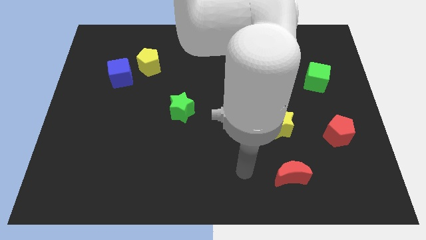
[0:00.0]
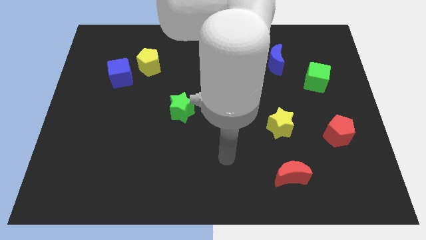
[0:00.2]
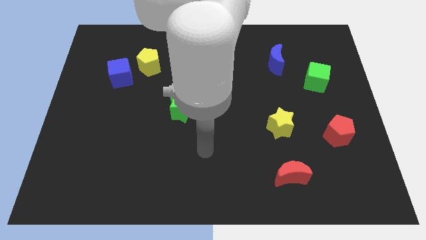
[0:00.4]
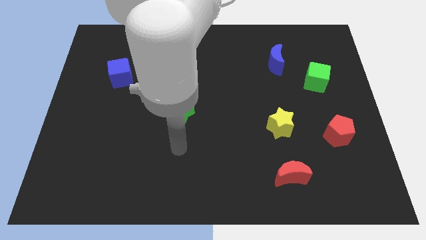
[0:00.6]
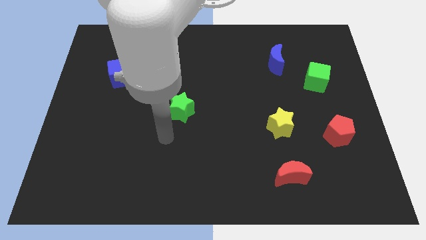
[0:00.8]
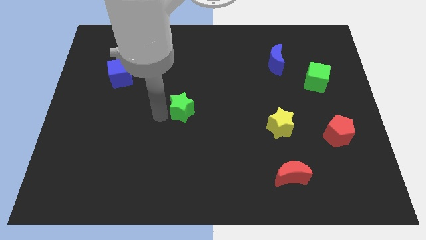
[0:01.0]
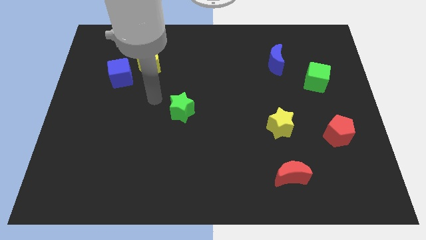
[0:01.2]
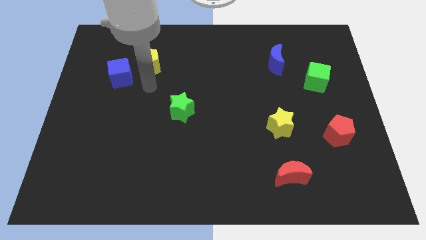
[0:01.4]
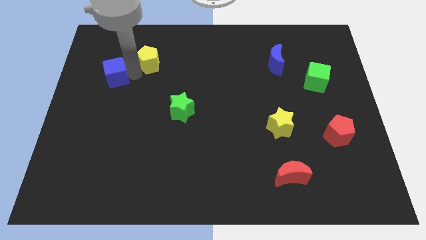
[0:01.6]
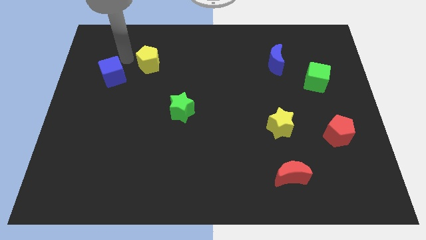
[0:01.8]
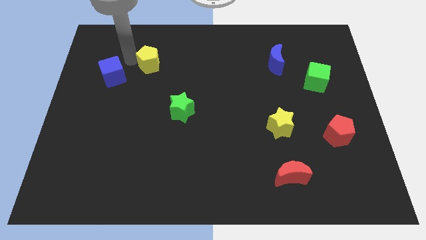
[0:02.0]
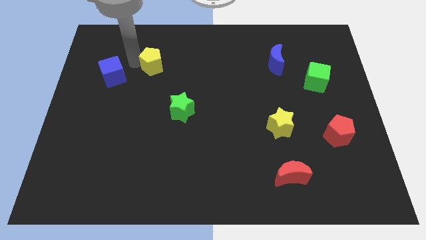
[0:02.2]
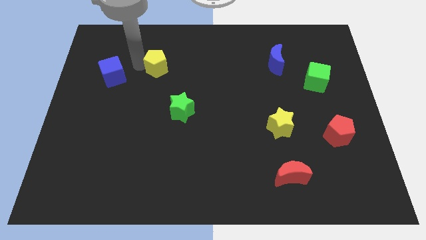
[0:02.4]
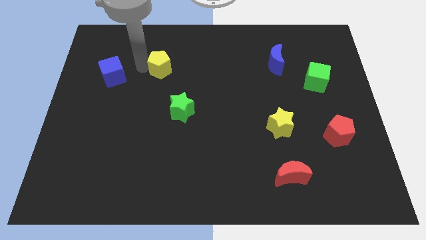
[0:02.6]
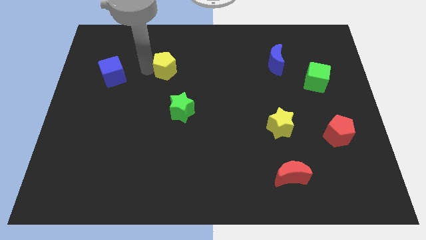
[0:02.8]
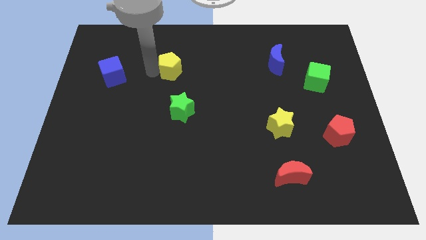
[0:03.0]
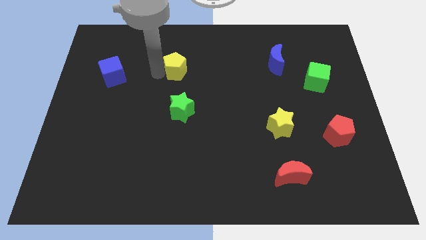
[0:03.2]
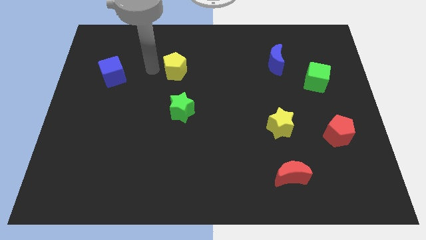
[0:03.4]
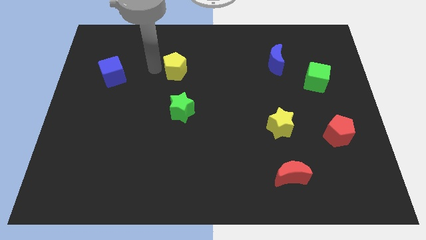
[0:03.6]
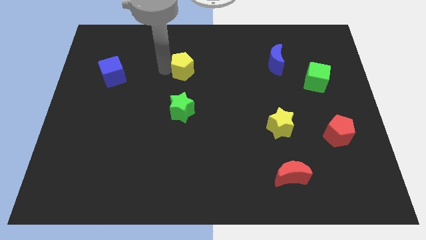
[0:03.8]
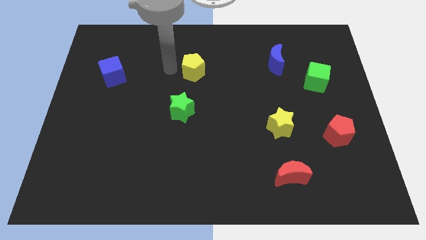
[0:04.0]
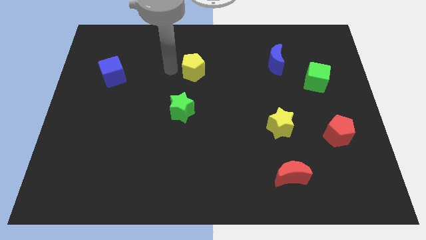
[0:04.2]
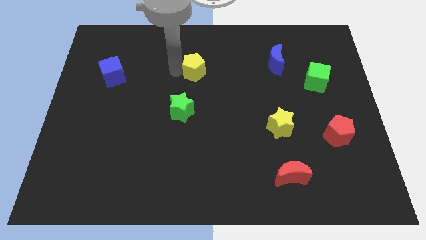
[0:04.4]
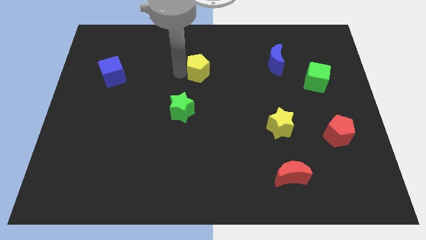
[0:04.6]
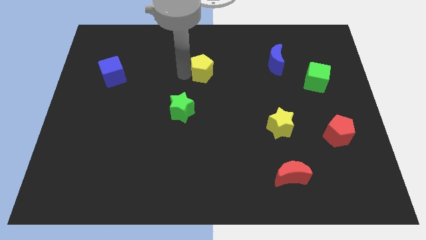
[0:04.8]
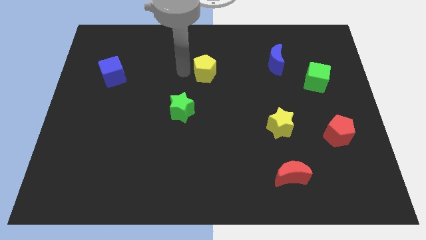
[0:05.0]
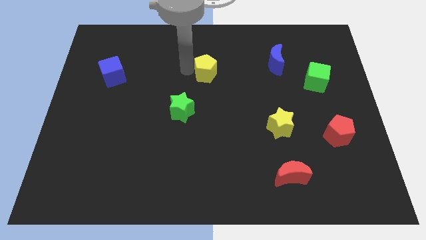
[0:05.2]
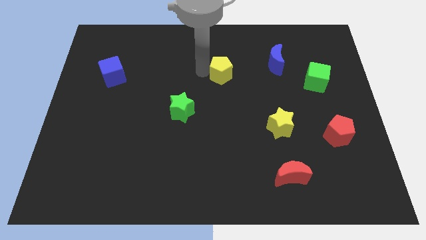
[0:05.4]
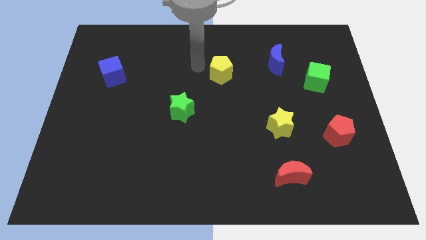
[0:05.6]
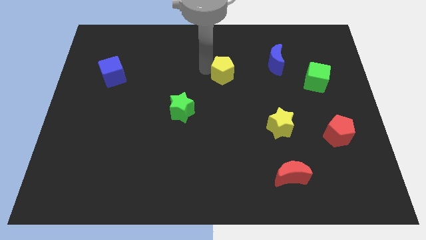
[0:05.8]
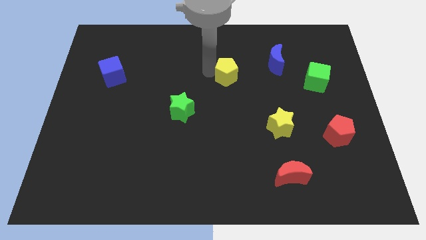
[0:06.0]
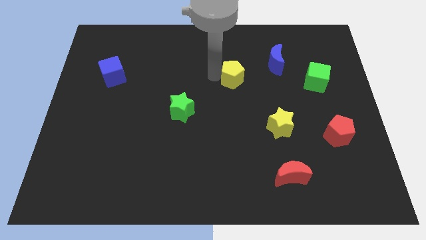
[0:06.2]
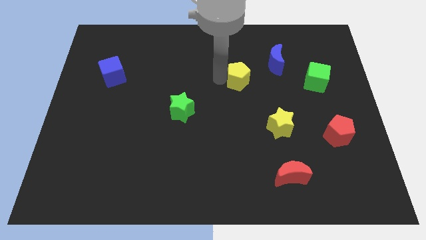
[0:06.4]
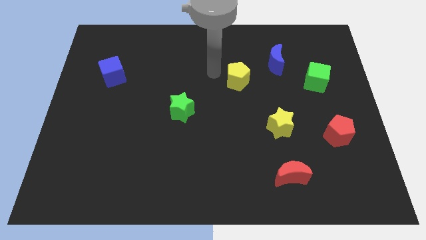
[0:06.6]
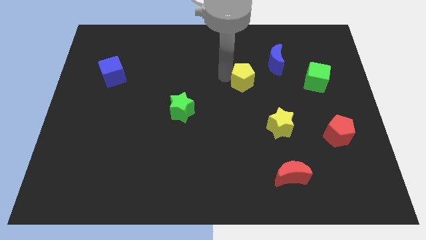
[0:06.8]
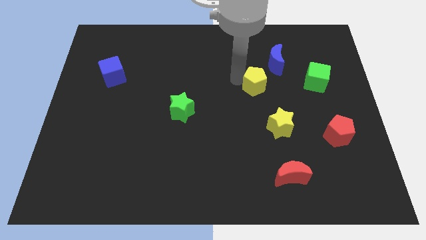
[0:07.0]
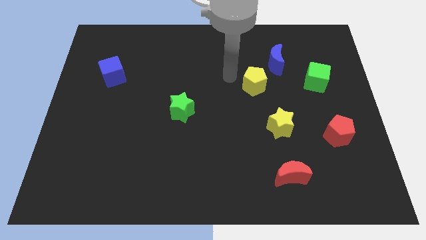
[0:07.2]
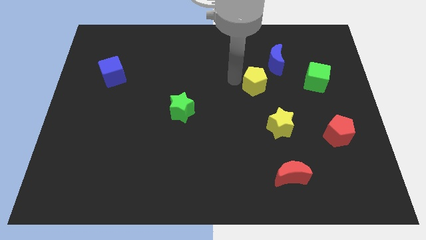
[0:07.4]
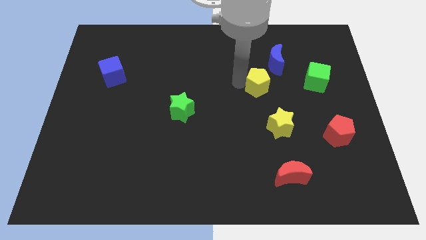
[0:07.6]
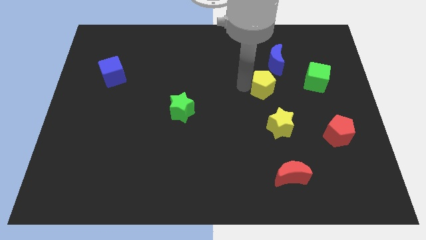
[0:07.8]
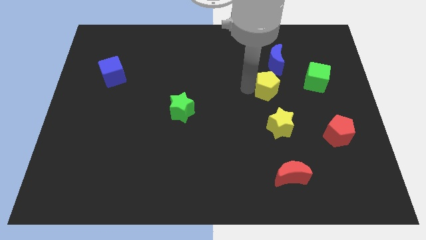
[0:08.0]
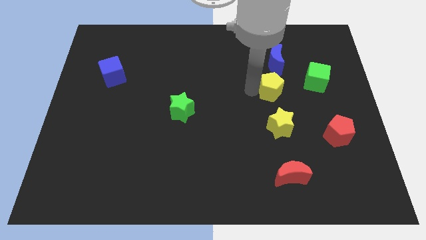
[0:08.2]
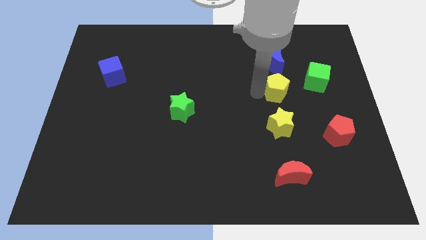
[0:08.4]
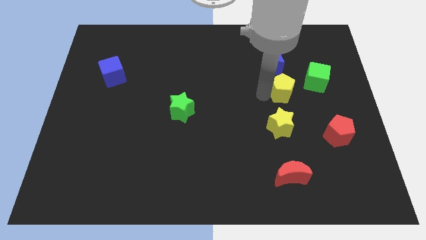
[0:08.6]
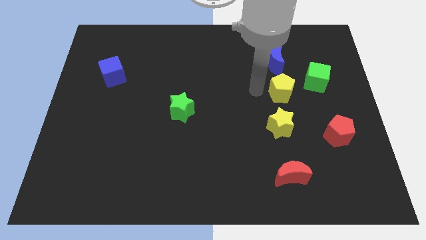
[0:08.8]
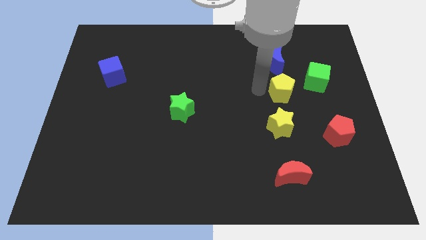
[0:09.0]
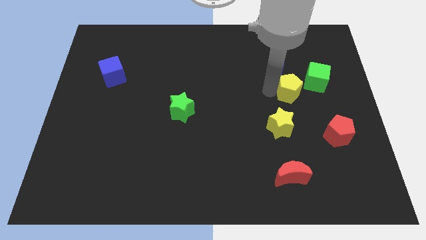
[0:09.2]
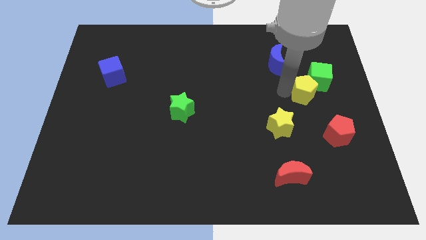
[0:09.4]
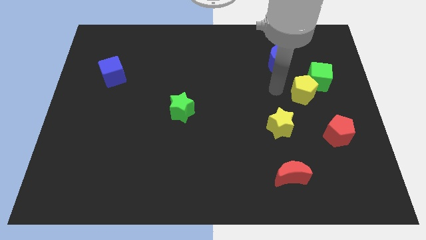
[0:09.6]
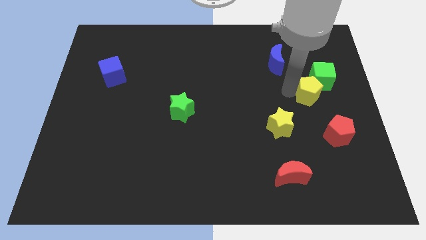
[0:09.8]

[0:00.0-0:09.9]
push the yellow pentagon to the top of the red pentagon

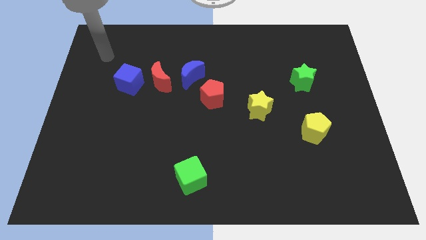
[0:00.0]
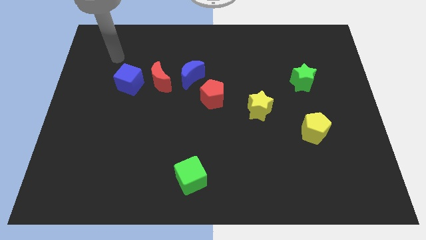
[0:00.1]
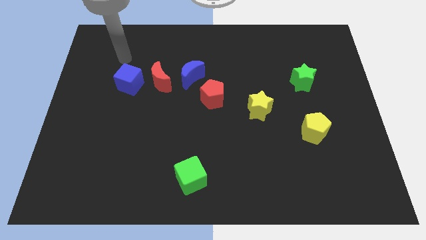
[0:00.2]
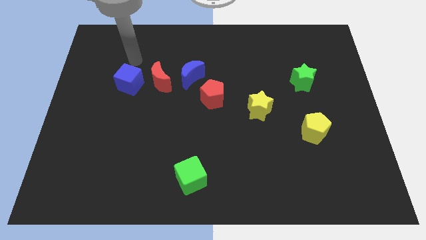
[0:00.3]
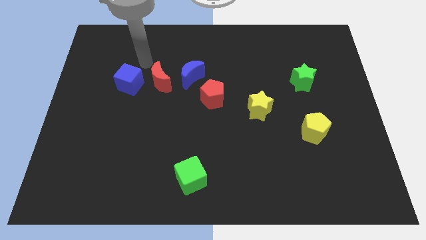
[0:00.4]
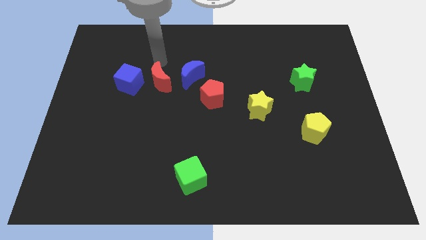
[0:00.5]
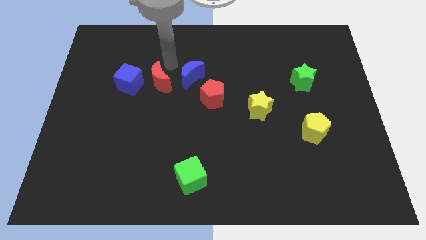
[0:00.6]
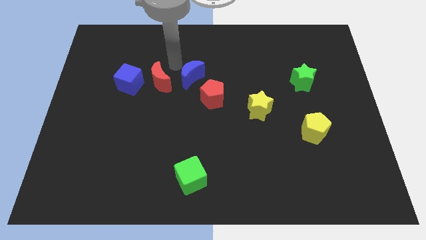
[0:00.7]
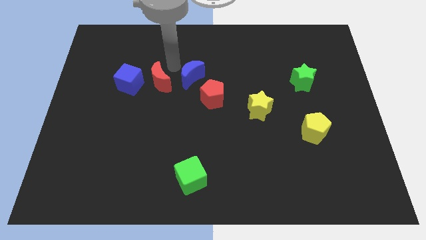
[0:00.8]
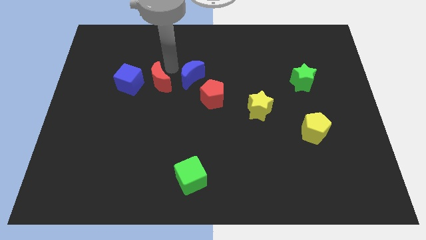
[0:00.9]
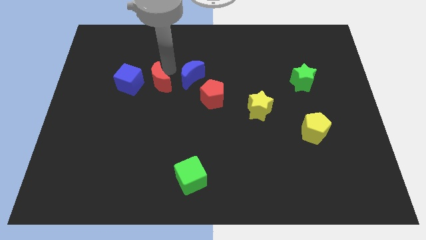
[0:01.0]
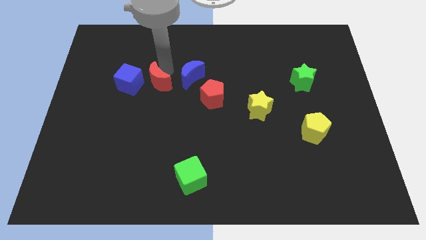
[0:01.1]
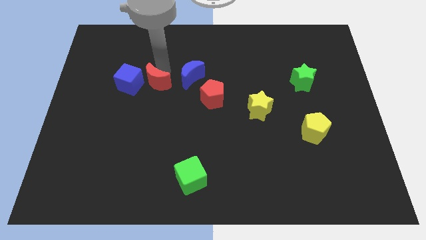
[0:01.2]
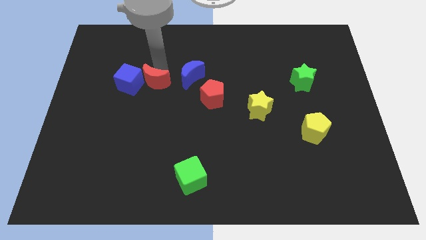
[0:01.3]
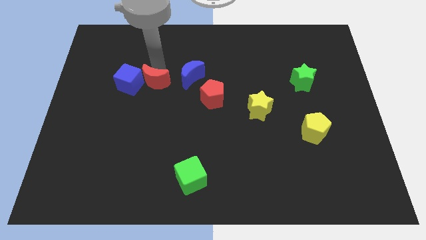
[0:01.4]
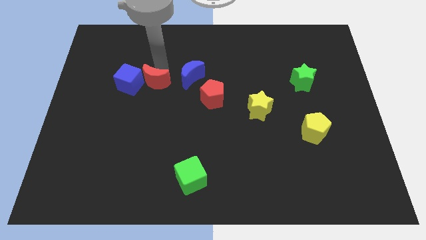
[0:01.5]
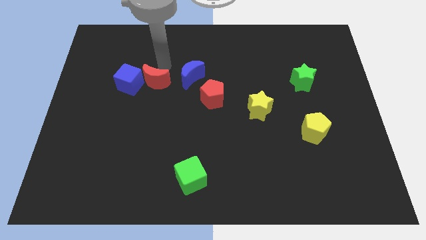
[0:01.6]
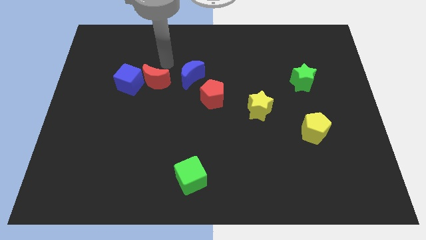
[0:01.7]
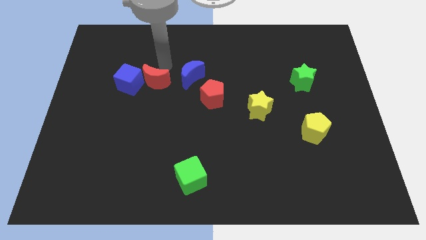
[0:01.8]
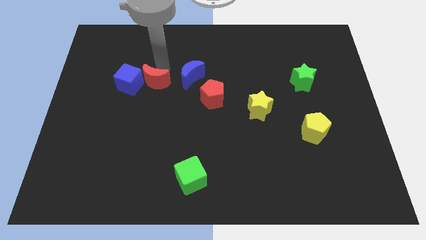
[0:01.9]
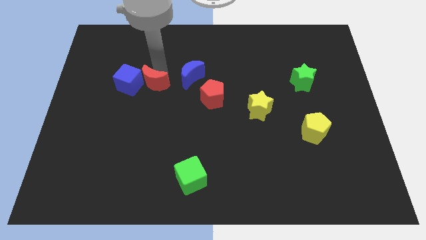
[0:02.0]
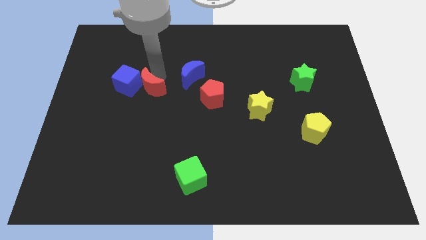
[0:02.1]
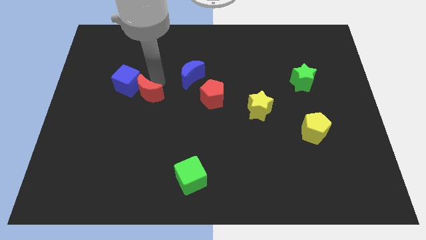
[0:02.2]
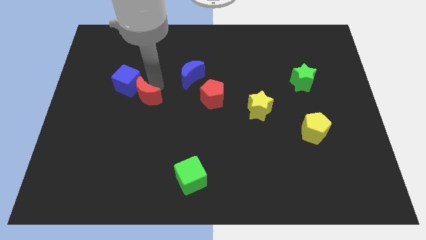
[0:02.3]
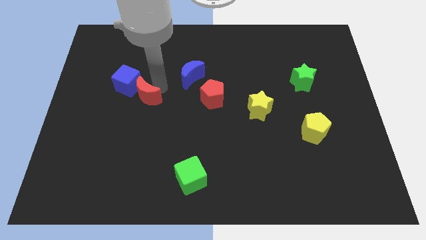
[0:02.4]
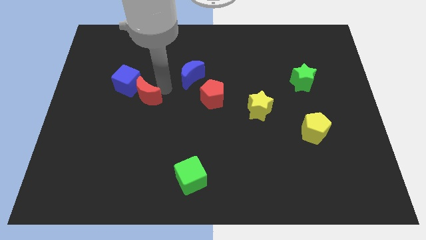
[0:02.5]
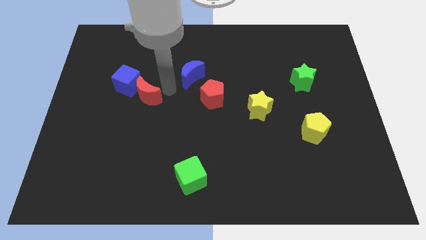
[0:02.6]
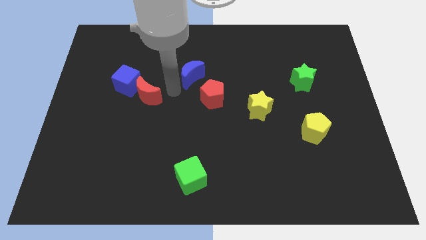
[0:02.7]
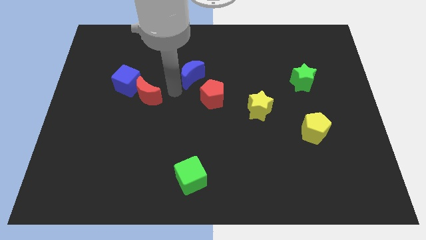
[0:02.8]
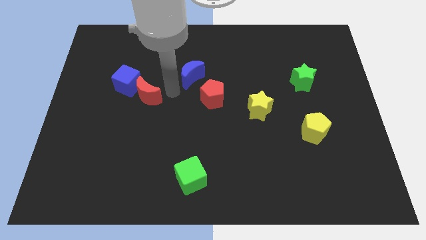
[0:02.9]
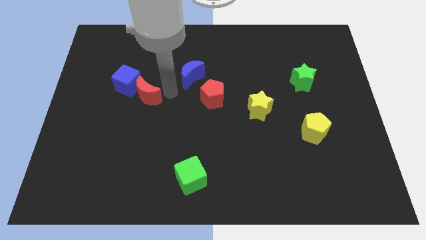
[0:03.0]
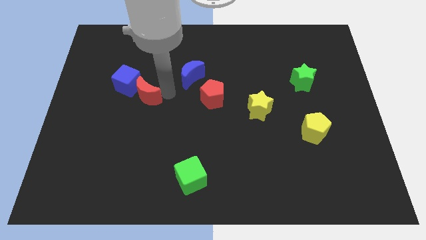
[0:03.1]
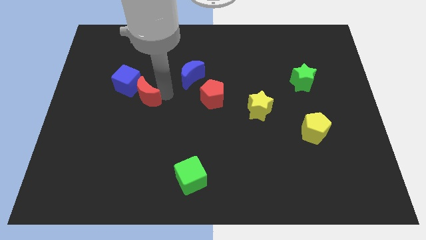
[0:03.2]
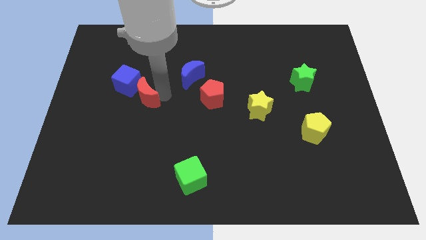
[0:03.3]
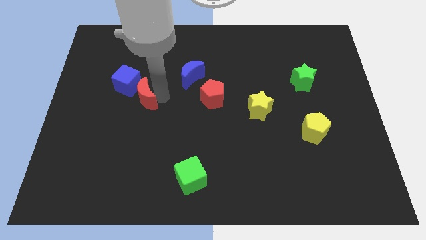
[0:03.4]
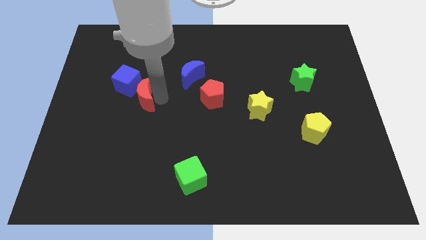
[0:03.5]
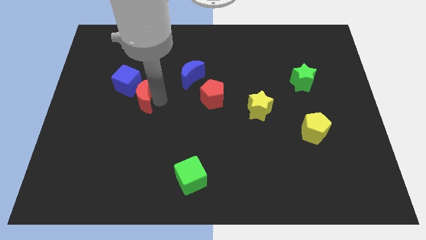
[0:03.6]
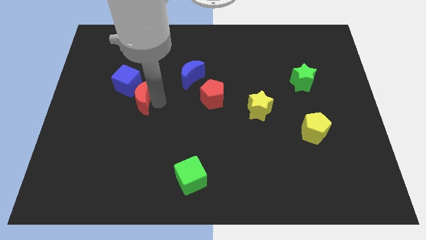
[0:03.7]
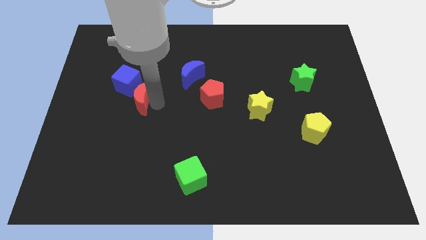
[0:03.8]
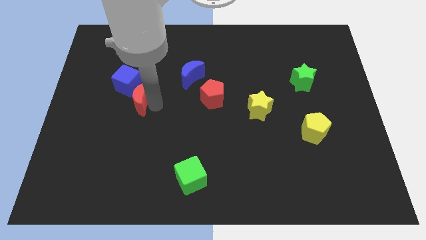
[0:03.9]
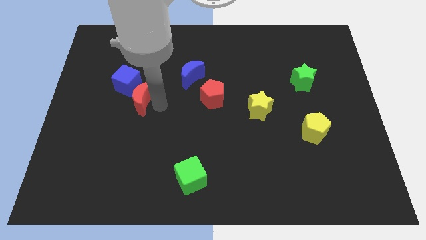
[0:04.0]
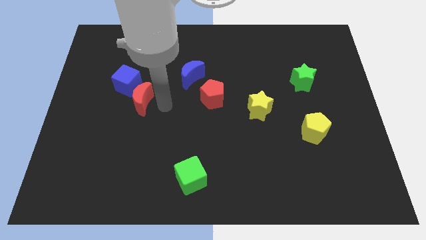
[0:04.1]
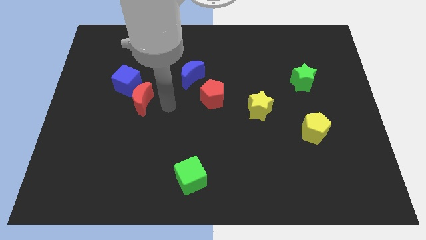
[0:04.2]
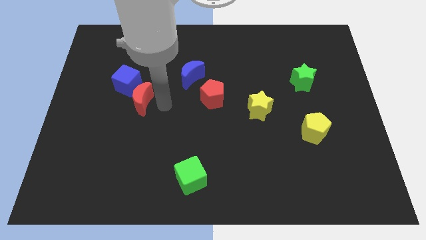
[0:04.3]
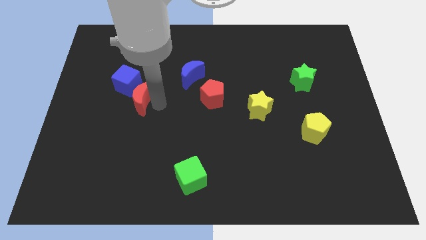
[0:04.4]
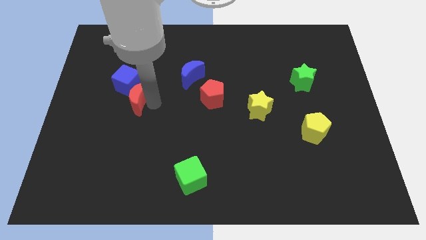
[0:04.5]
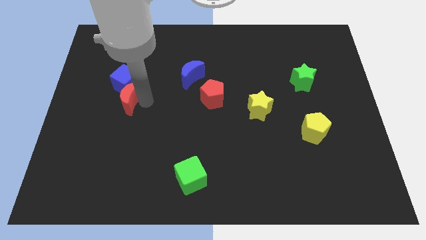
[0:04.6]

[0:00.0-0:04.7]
slide the red moon to the bottom left of the blue cube
